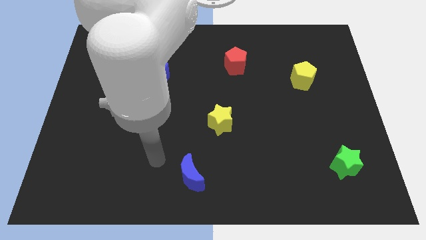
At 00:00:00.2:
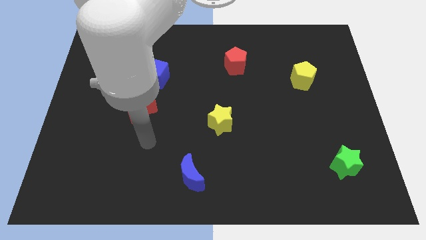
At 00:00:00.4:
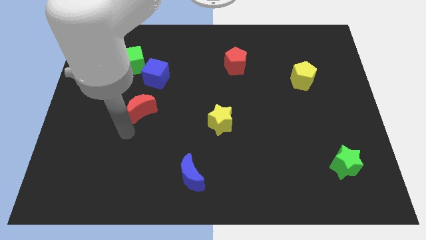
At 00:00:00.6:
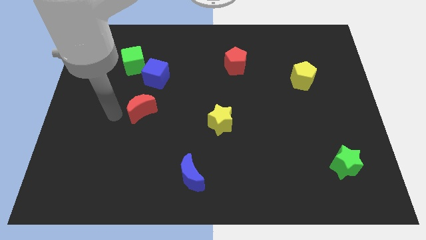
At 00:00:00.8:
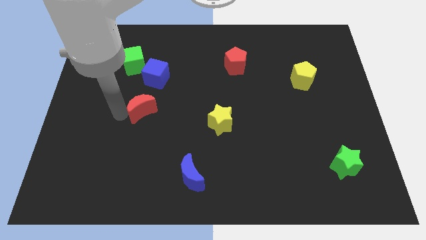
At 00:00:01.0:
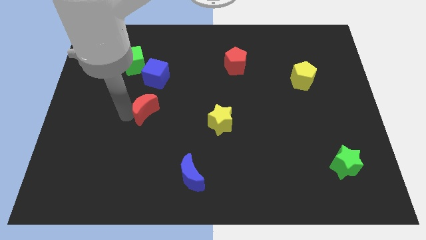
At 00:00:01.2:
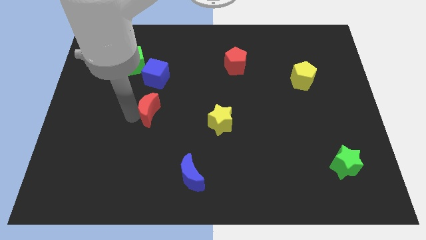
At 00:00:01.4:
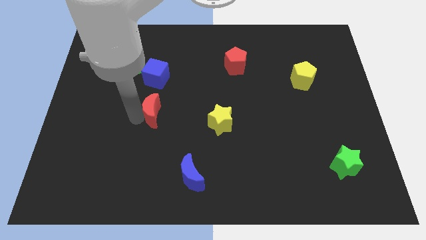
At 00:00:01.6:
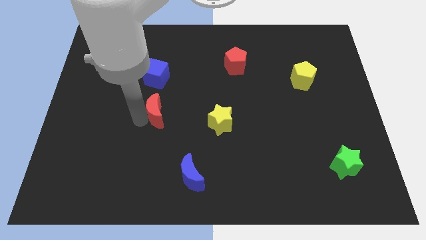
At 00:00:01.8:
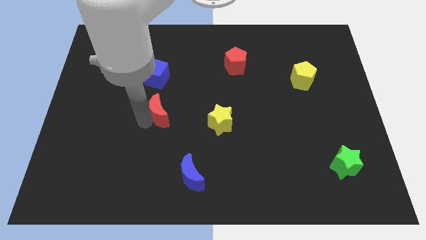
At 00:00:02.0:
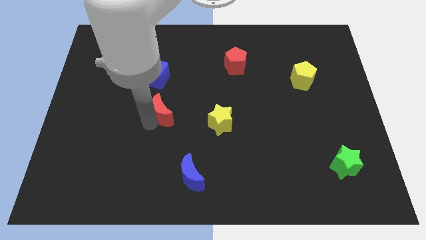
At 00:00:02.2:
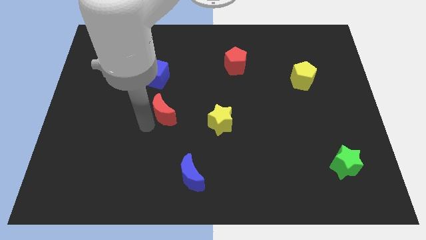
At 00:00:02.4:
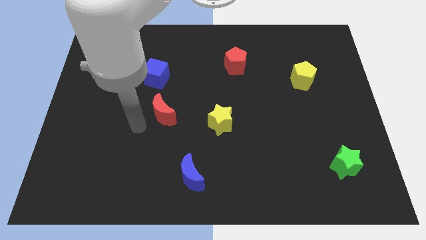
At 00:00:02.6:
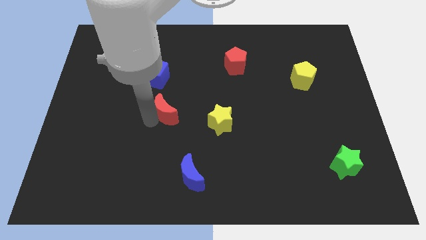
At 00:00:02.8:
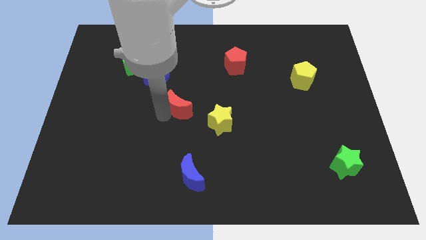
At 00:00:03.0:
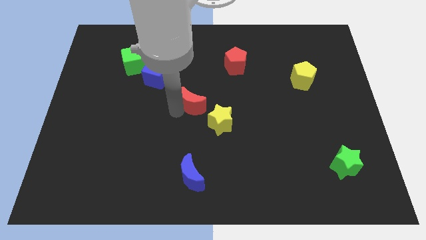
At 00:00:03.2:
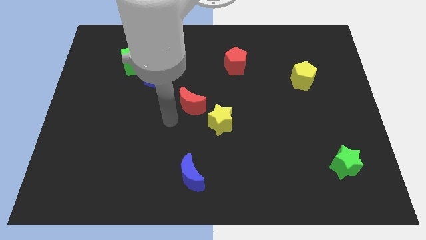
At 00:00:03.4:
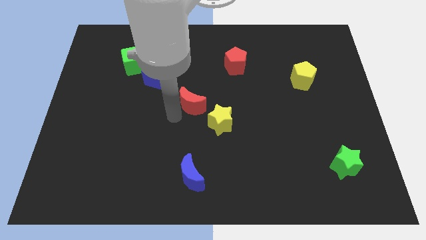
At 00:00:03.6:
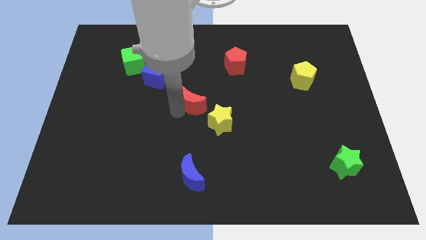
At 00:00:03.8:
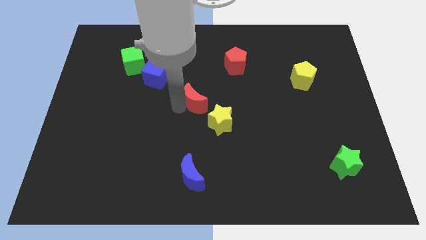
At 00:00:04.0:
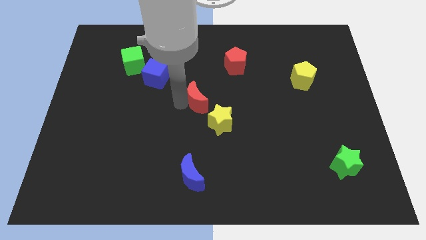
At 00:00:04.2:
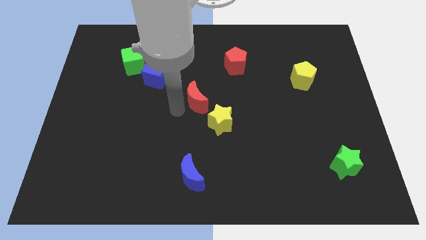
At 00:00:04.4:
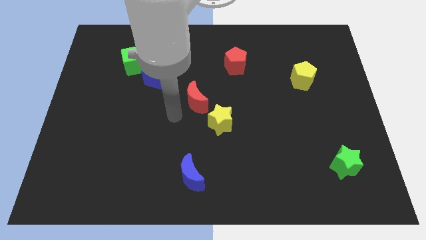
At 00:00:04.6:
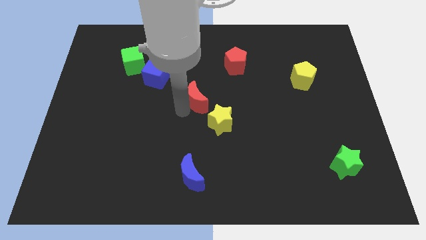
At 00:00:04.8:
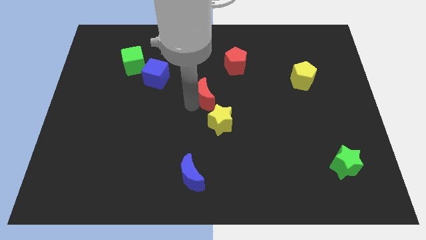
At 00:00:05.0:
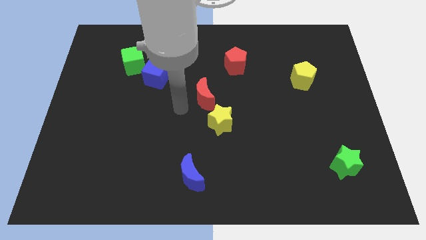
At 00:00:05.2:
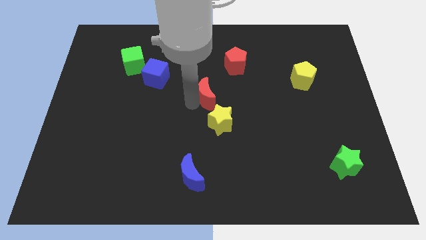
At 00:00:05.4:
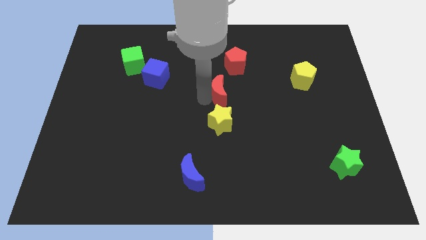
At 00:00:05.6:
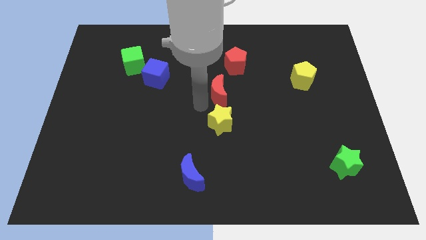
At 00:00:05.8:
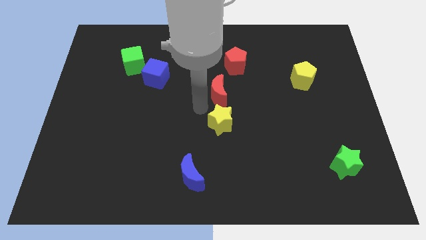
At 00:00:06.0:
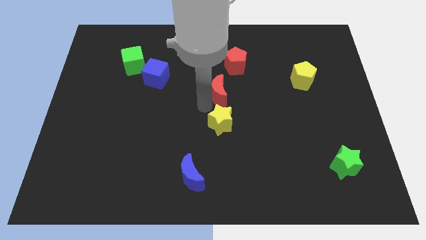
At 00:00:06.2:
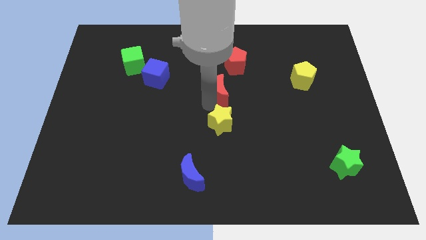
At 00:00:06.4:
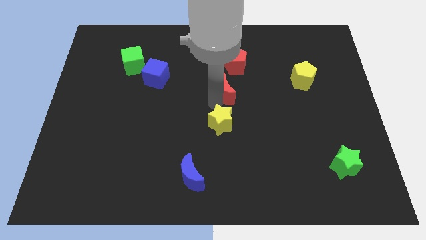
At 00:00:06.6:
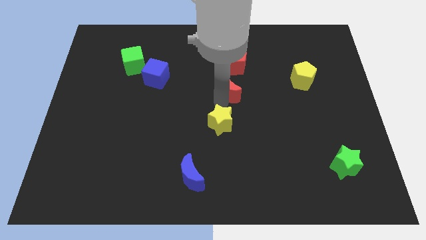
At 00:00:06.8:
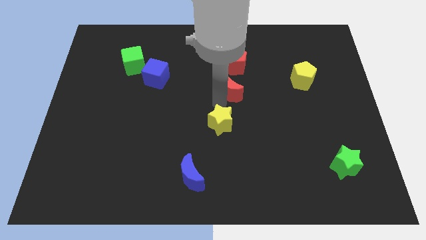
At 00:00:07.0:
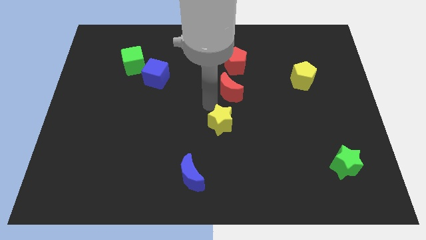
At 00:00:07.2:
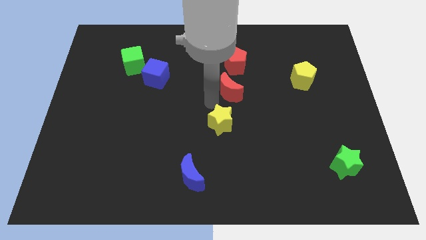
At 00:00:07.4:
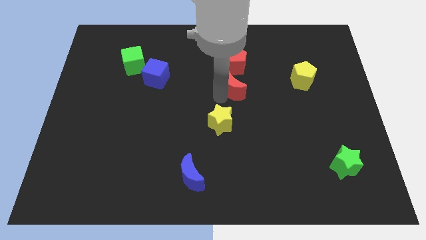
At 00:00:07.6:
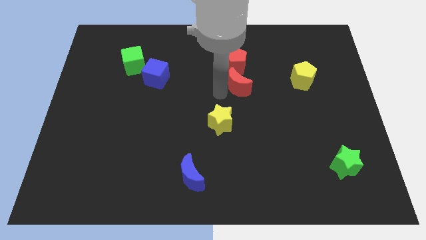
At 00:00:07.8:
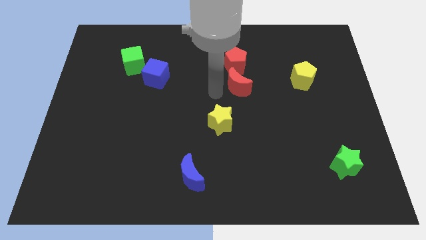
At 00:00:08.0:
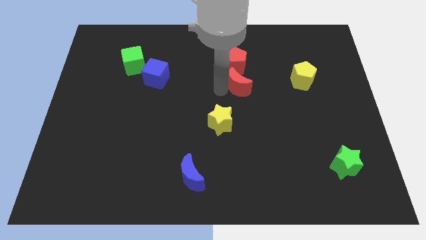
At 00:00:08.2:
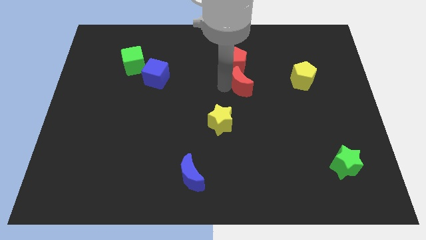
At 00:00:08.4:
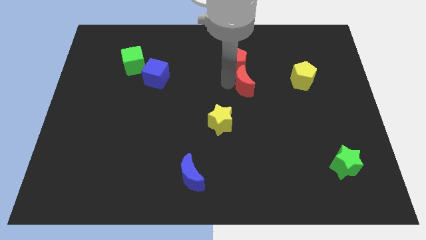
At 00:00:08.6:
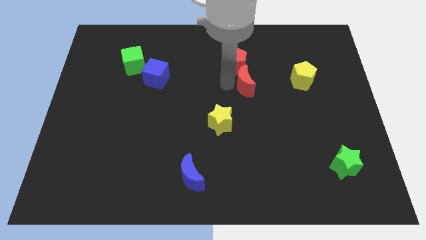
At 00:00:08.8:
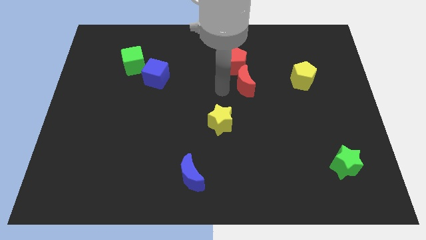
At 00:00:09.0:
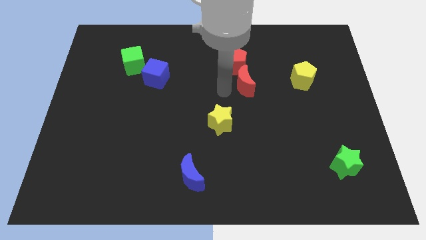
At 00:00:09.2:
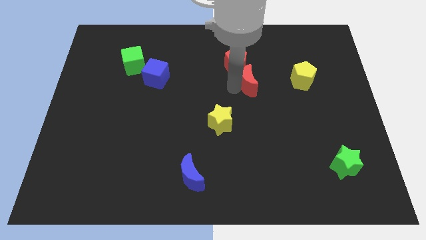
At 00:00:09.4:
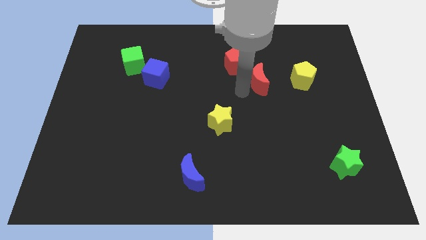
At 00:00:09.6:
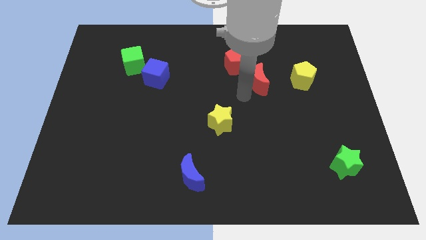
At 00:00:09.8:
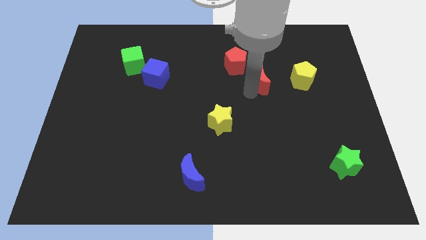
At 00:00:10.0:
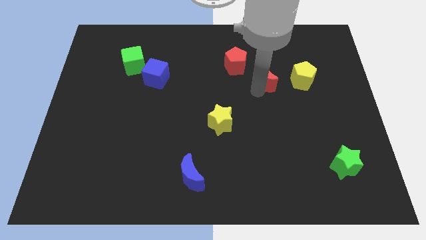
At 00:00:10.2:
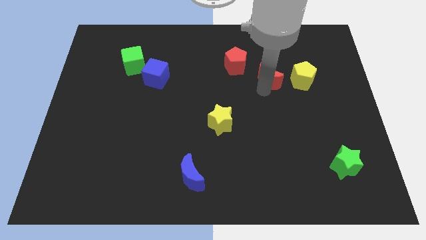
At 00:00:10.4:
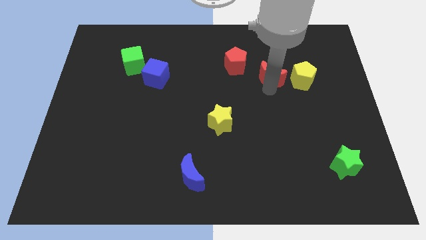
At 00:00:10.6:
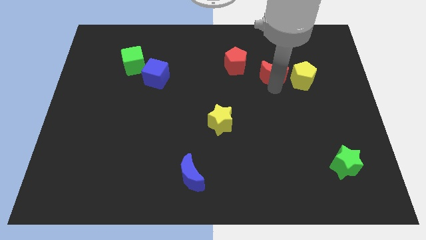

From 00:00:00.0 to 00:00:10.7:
push the red moon to the top left of the yellow pentagon

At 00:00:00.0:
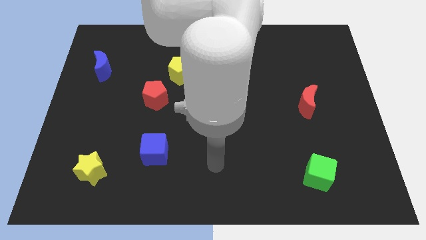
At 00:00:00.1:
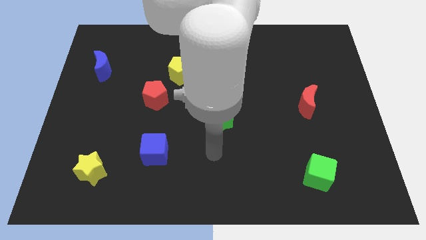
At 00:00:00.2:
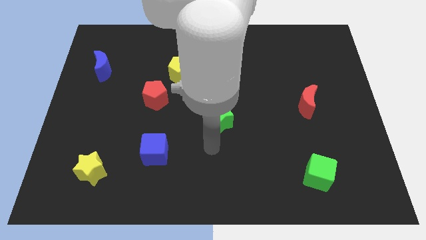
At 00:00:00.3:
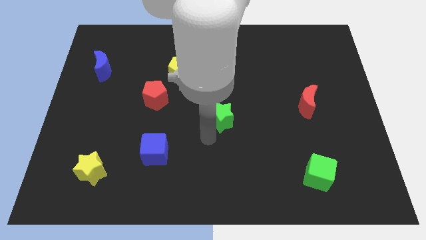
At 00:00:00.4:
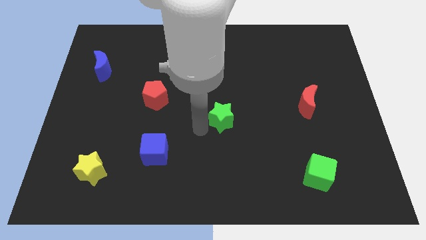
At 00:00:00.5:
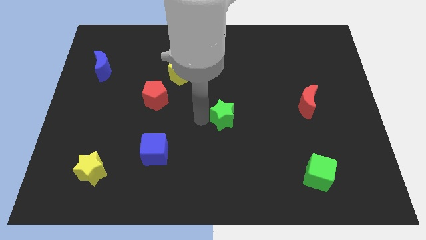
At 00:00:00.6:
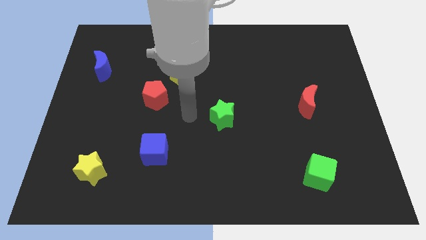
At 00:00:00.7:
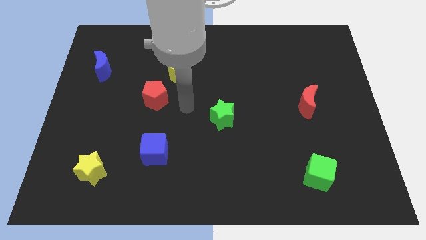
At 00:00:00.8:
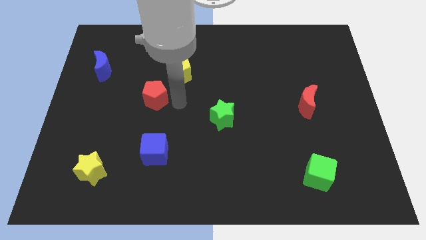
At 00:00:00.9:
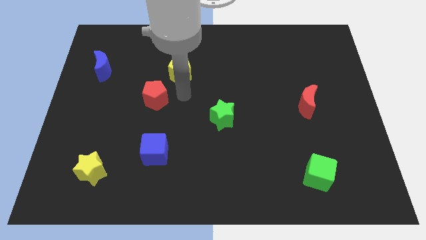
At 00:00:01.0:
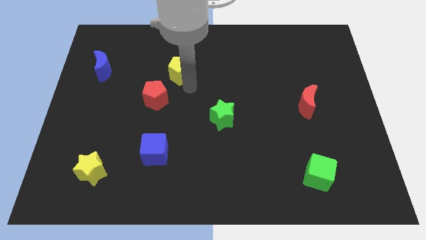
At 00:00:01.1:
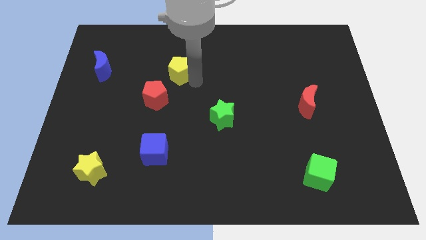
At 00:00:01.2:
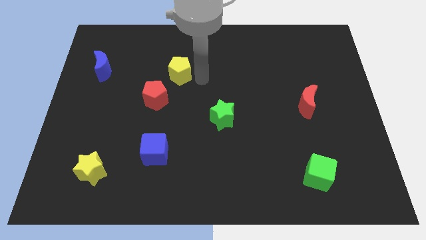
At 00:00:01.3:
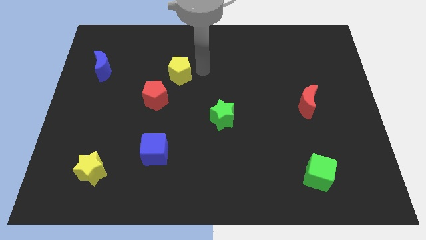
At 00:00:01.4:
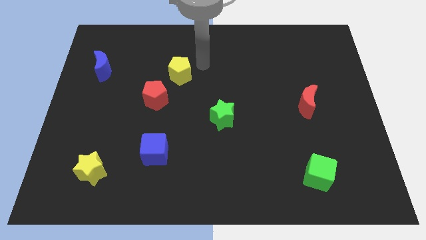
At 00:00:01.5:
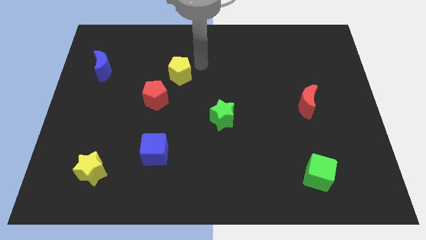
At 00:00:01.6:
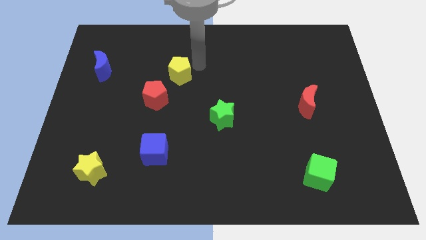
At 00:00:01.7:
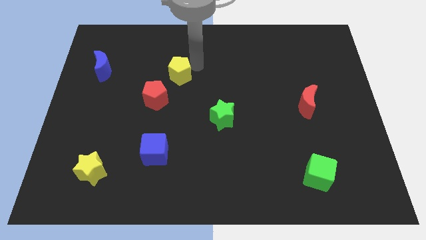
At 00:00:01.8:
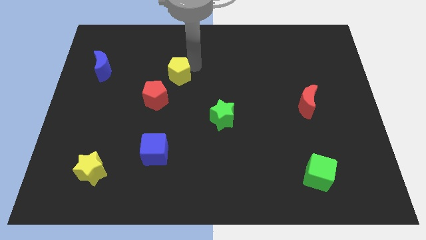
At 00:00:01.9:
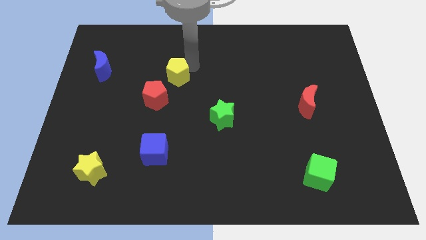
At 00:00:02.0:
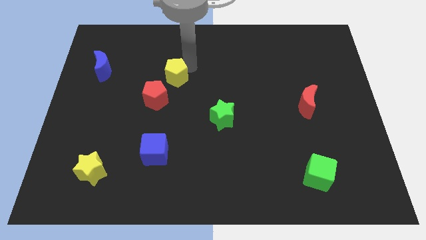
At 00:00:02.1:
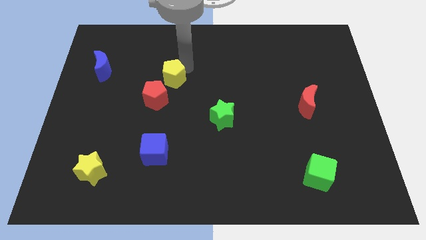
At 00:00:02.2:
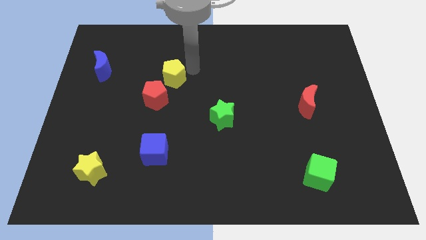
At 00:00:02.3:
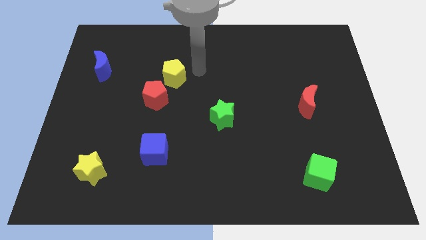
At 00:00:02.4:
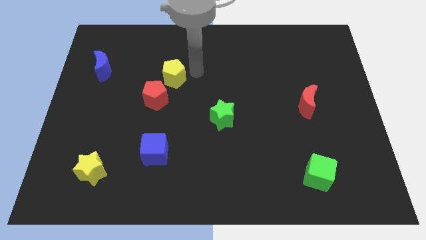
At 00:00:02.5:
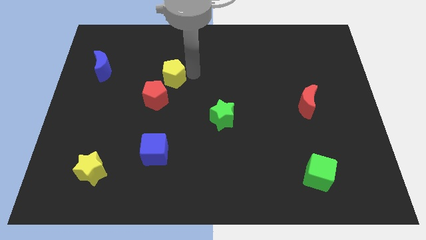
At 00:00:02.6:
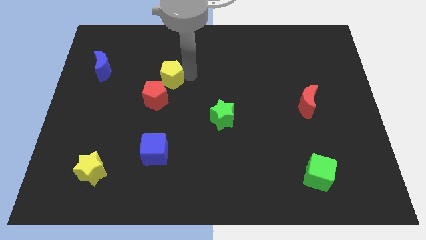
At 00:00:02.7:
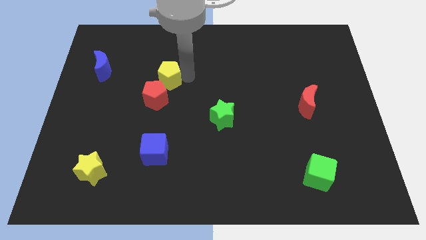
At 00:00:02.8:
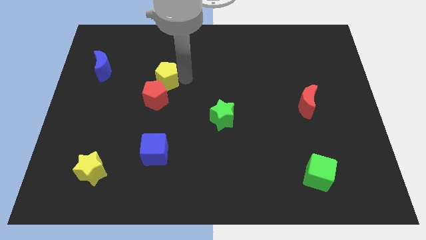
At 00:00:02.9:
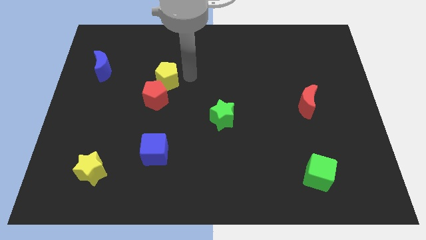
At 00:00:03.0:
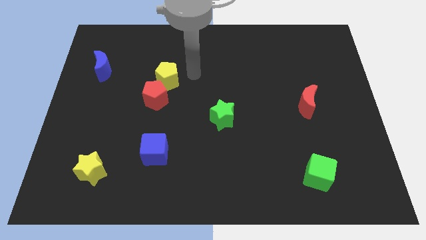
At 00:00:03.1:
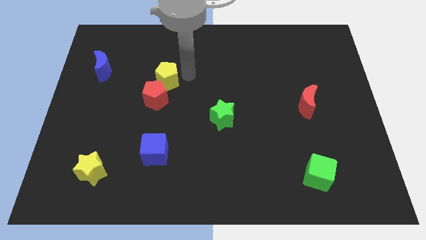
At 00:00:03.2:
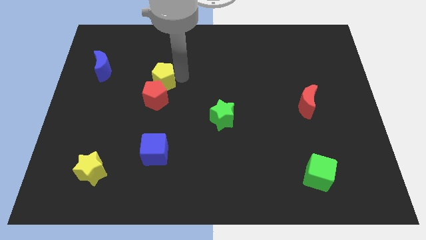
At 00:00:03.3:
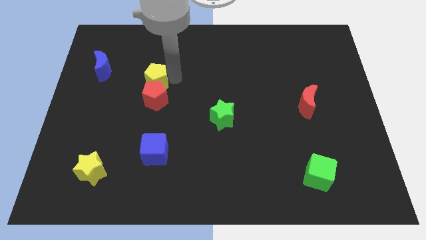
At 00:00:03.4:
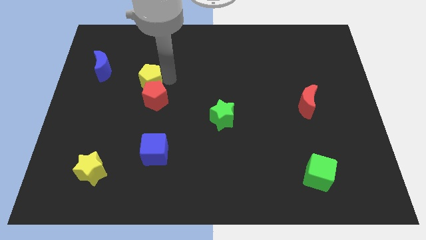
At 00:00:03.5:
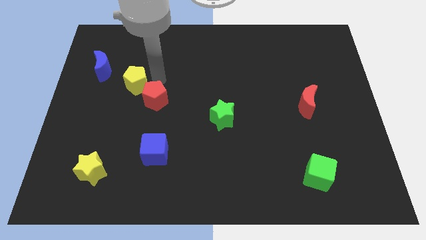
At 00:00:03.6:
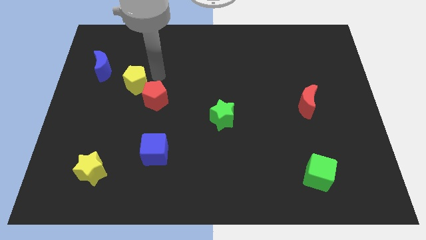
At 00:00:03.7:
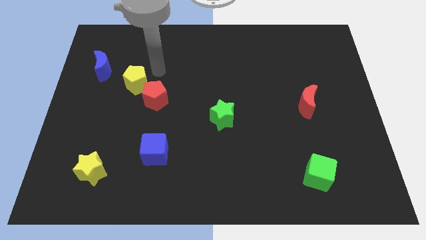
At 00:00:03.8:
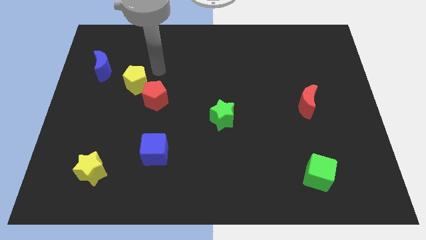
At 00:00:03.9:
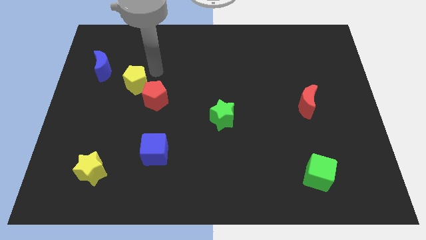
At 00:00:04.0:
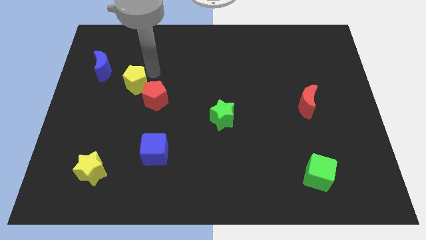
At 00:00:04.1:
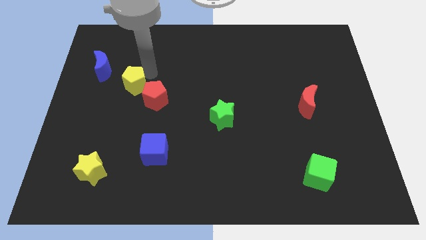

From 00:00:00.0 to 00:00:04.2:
put the yellow pentagon to the left of the red pentagon
